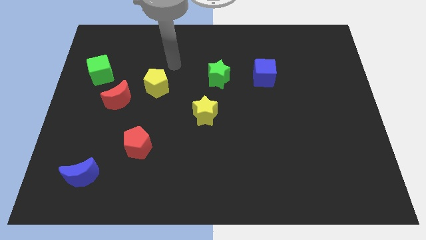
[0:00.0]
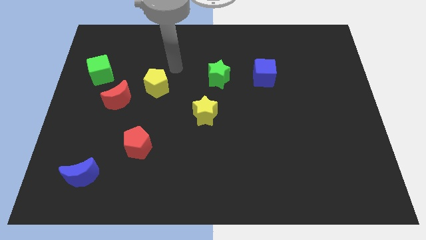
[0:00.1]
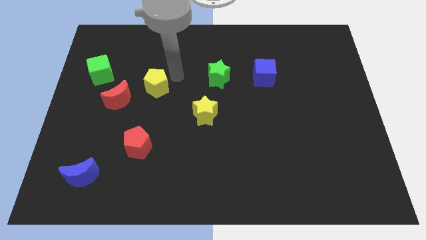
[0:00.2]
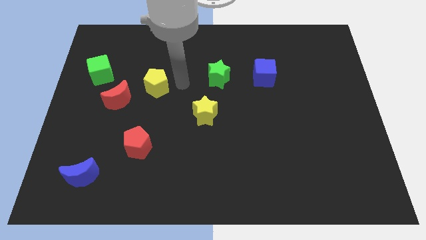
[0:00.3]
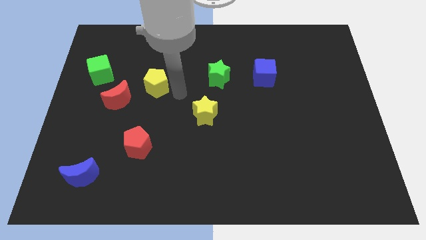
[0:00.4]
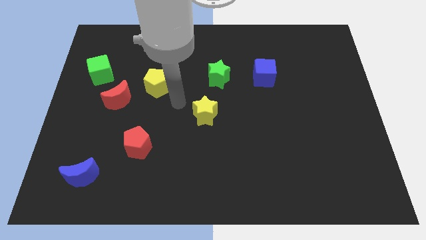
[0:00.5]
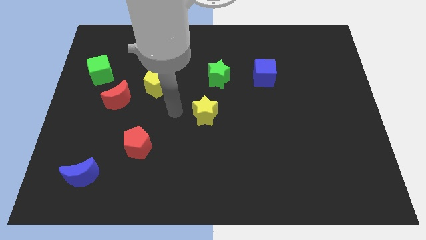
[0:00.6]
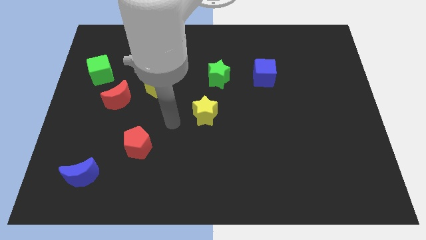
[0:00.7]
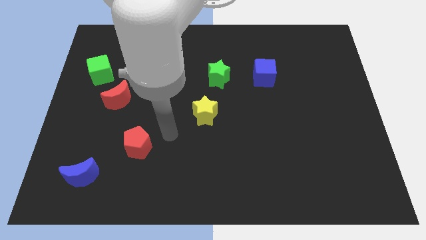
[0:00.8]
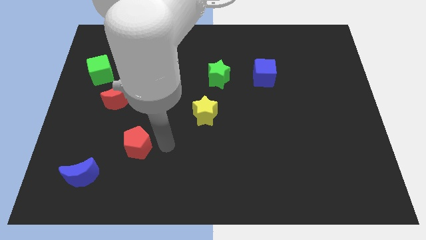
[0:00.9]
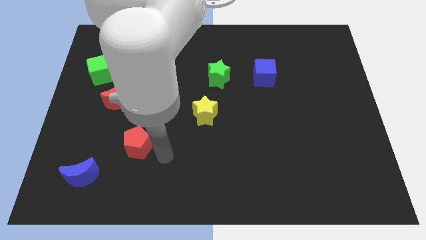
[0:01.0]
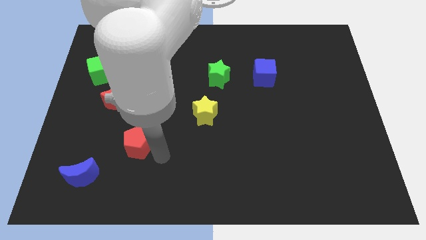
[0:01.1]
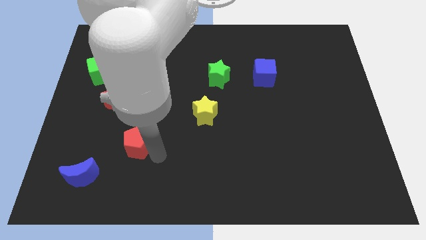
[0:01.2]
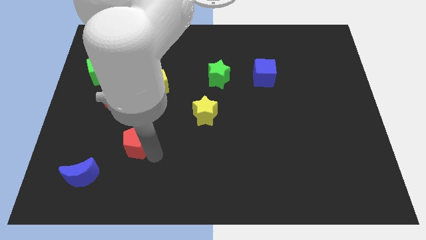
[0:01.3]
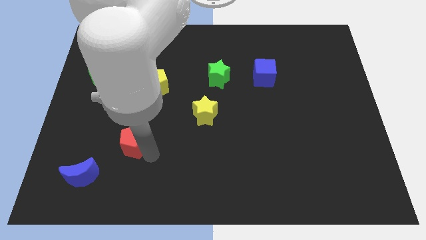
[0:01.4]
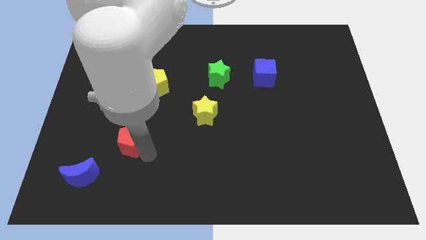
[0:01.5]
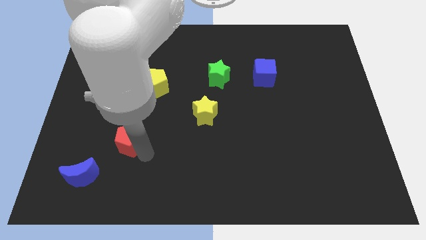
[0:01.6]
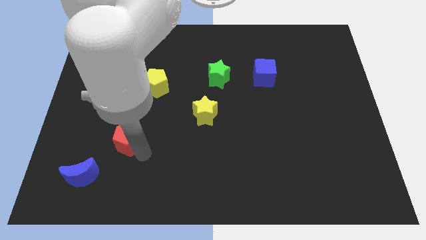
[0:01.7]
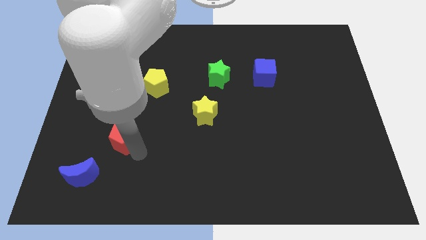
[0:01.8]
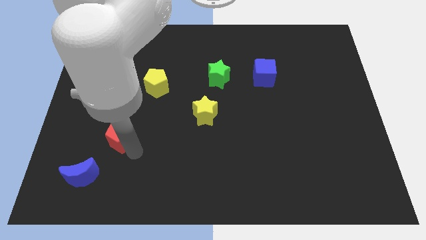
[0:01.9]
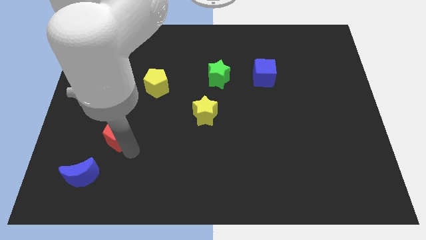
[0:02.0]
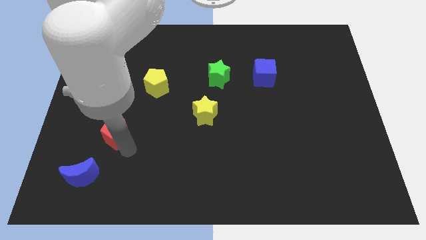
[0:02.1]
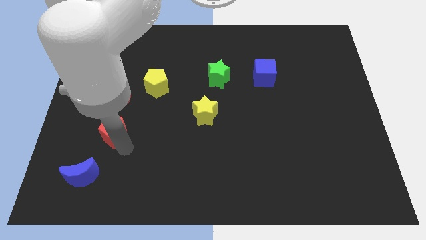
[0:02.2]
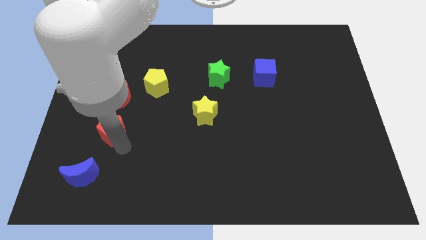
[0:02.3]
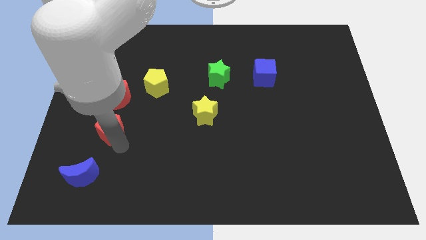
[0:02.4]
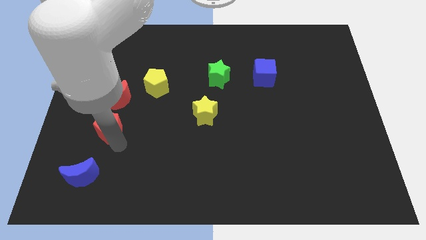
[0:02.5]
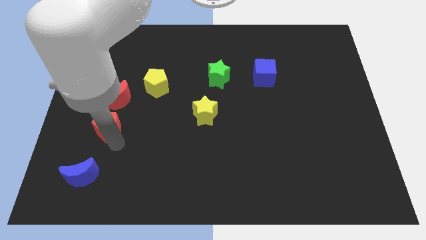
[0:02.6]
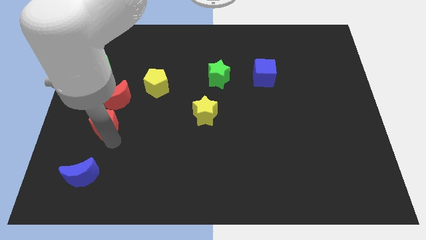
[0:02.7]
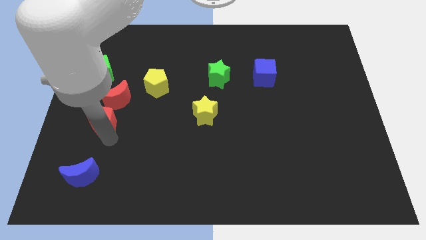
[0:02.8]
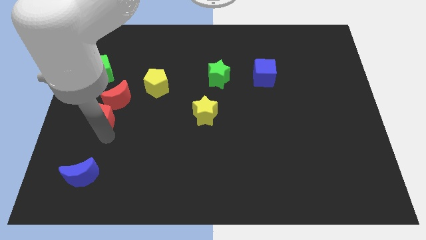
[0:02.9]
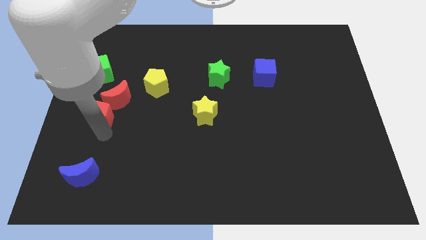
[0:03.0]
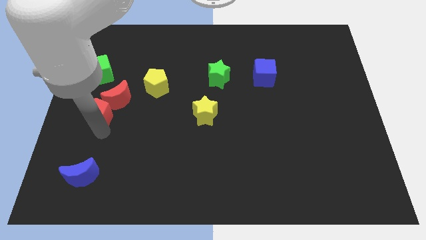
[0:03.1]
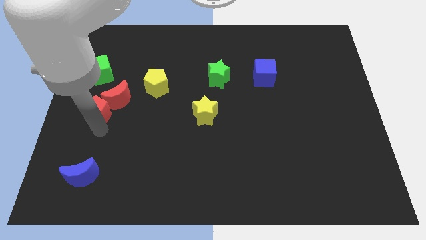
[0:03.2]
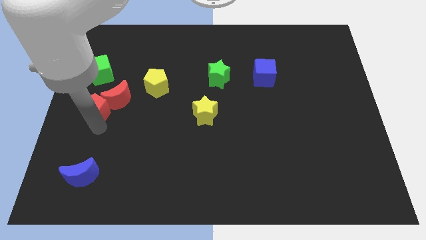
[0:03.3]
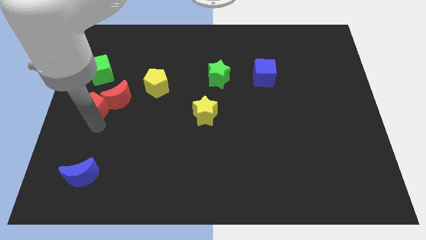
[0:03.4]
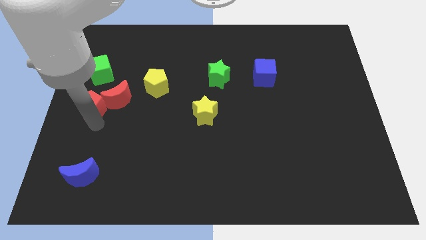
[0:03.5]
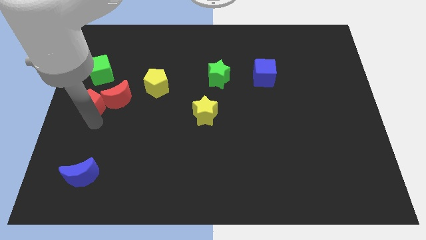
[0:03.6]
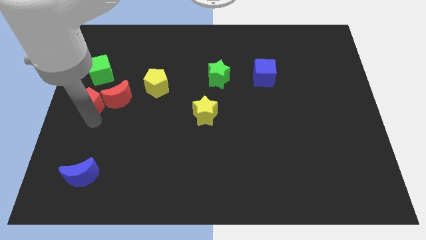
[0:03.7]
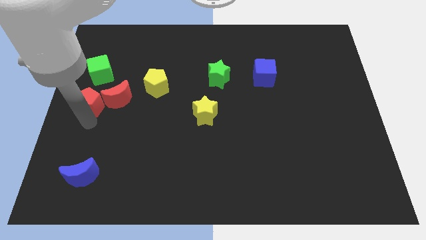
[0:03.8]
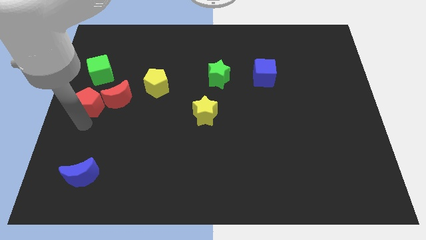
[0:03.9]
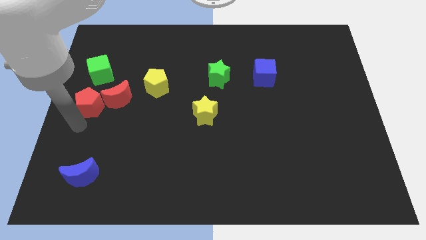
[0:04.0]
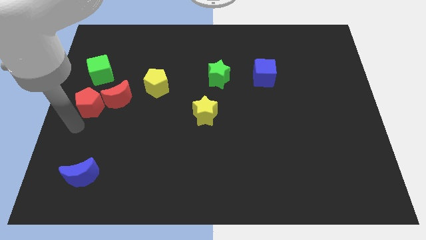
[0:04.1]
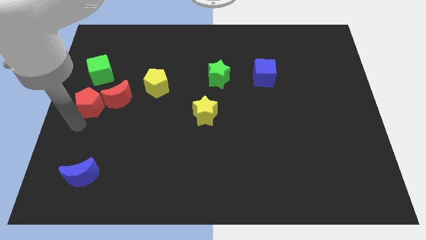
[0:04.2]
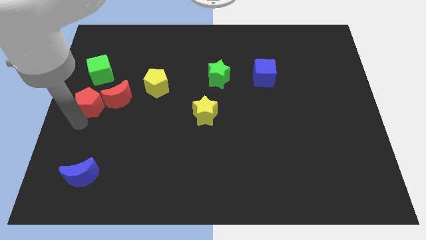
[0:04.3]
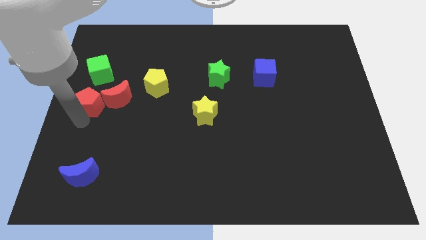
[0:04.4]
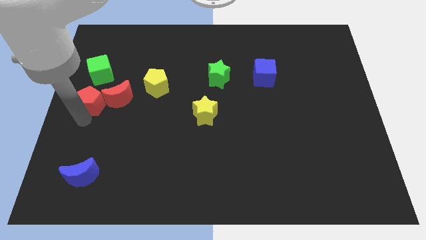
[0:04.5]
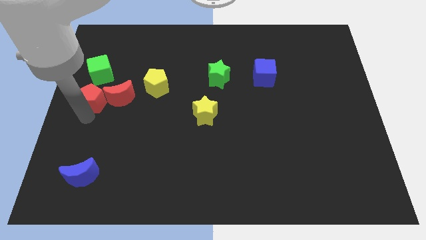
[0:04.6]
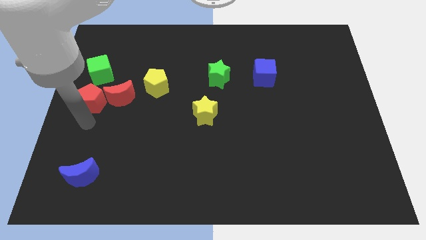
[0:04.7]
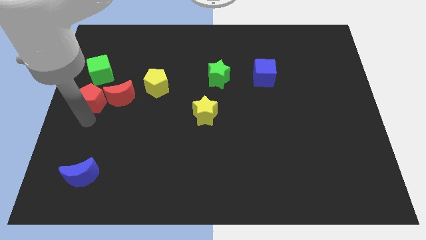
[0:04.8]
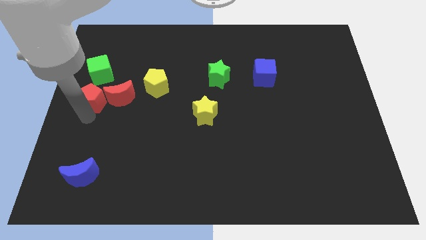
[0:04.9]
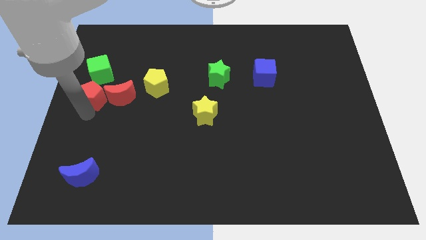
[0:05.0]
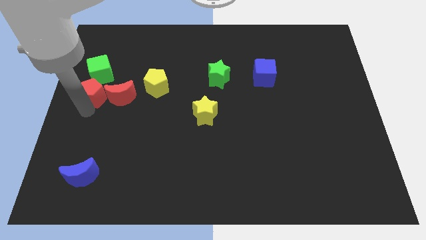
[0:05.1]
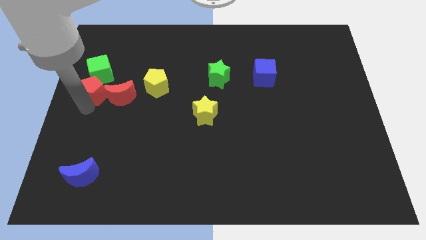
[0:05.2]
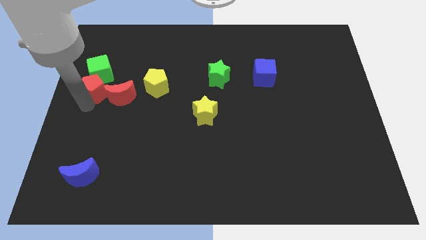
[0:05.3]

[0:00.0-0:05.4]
push the red pentagon to the green cube

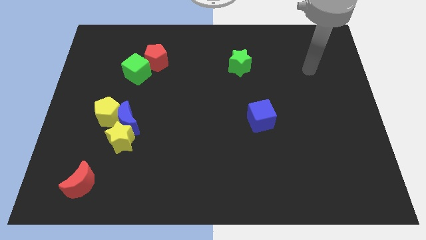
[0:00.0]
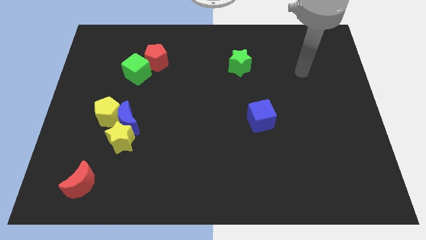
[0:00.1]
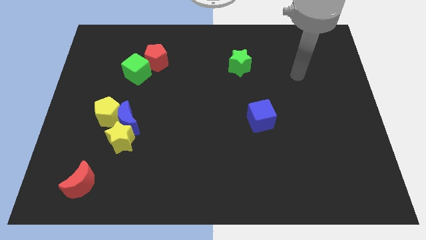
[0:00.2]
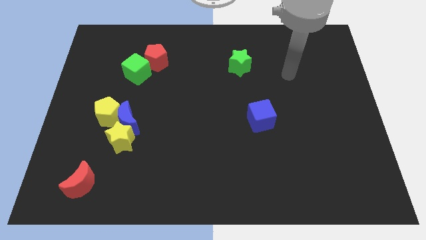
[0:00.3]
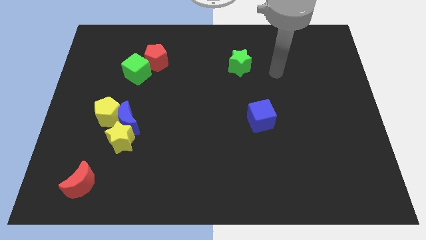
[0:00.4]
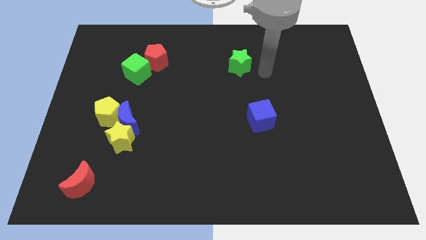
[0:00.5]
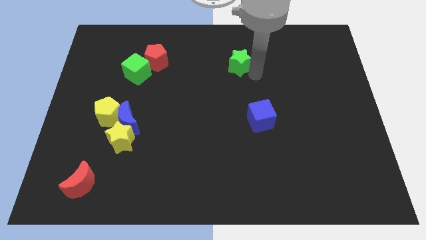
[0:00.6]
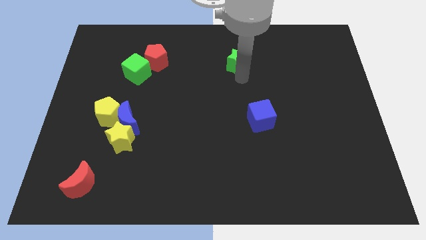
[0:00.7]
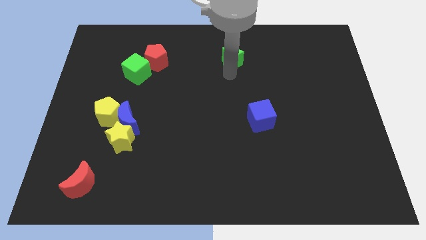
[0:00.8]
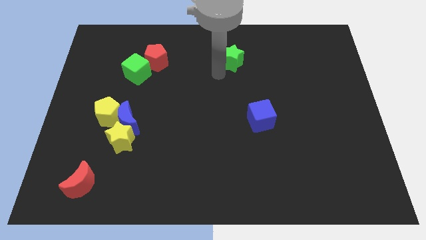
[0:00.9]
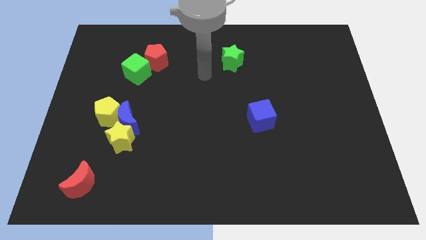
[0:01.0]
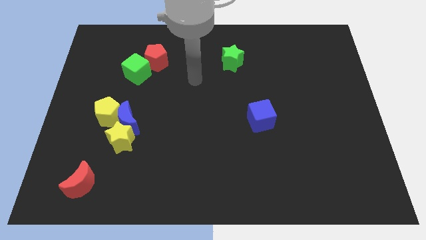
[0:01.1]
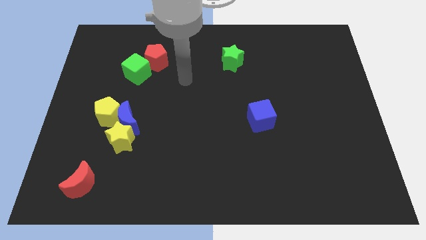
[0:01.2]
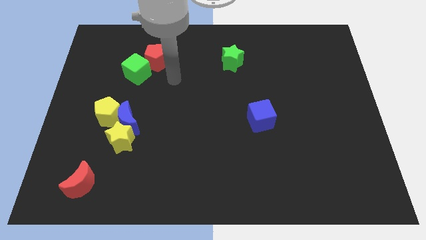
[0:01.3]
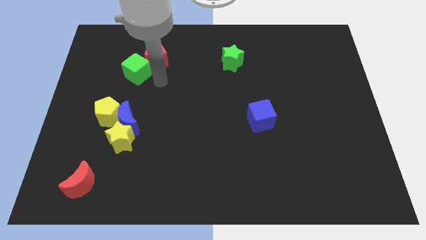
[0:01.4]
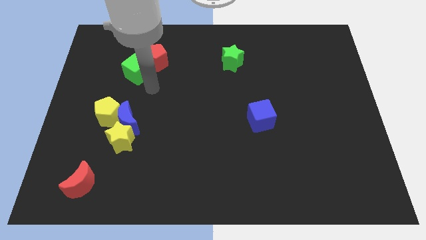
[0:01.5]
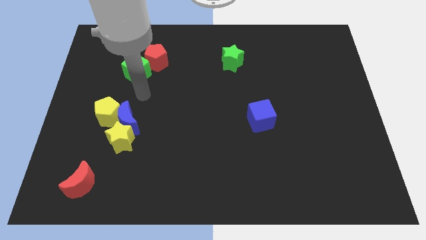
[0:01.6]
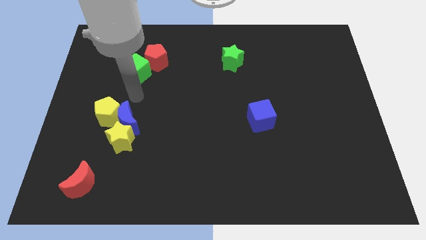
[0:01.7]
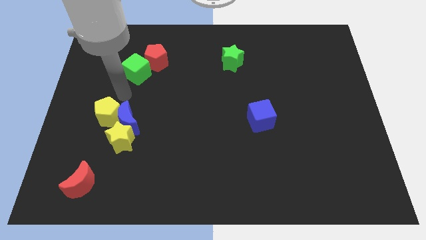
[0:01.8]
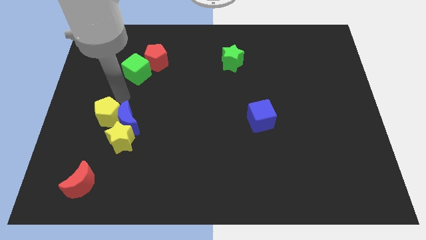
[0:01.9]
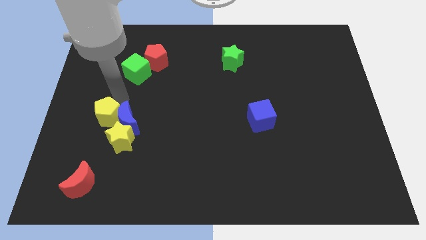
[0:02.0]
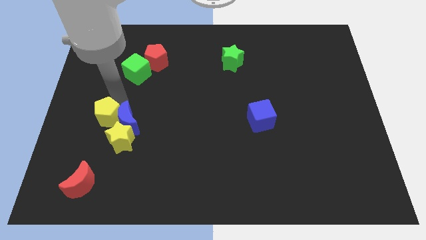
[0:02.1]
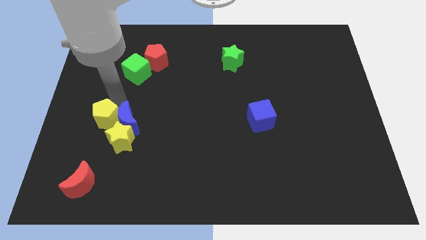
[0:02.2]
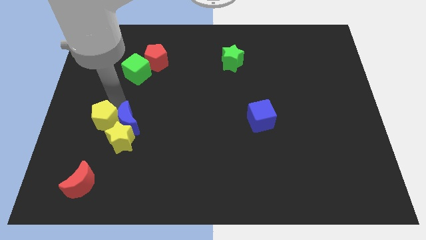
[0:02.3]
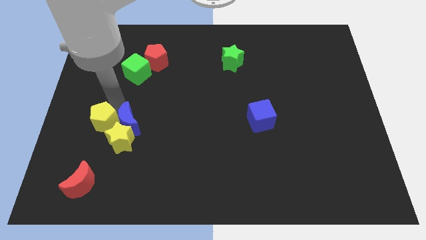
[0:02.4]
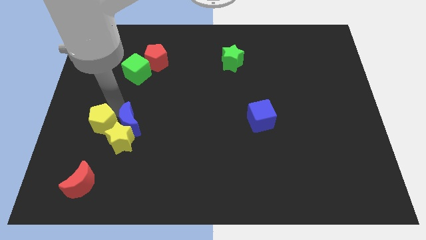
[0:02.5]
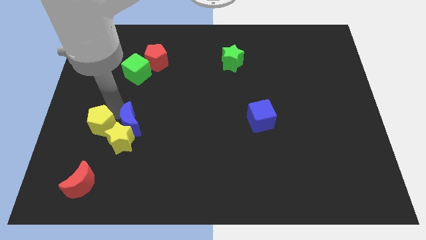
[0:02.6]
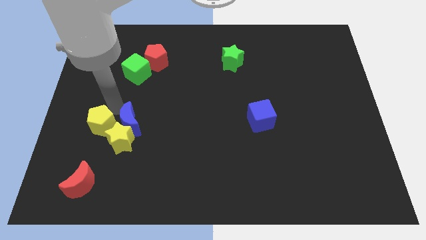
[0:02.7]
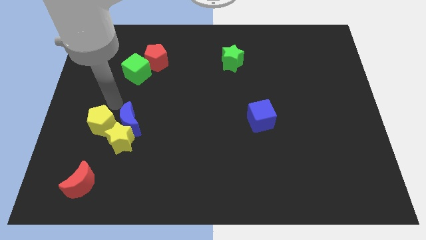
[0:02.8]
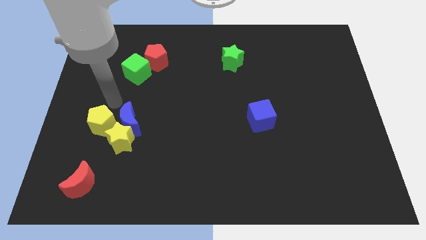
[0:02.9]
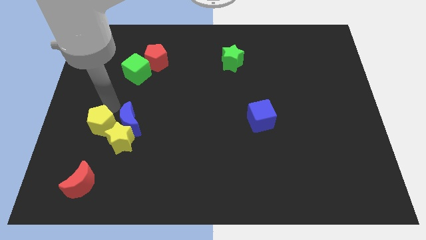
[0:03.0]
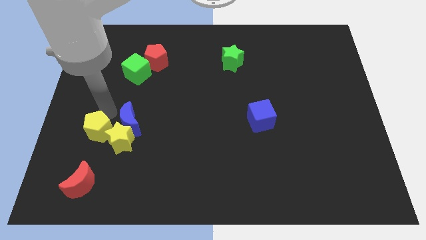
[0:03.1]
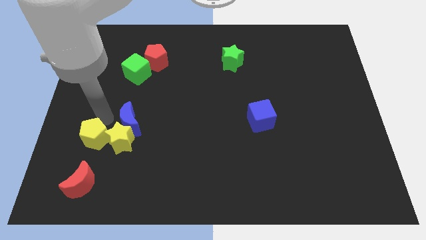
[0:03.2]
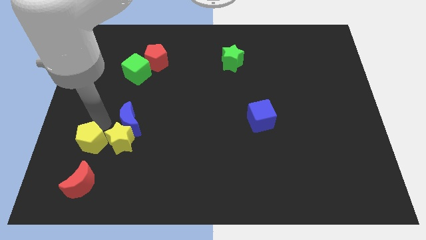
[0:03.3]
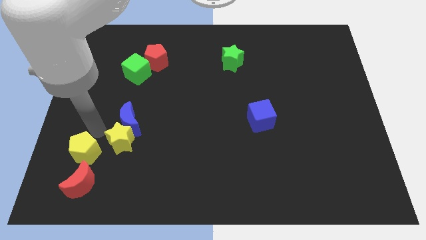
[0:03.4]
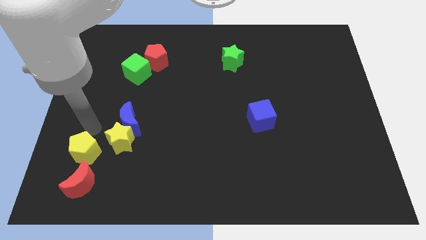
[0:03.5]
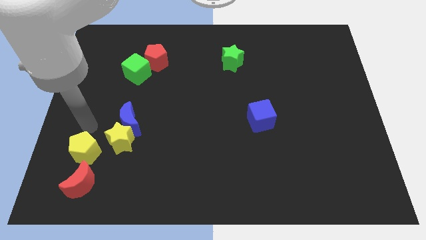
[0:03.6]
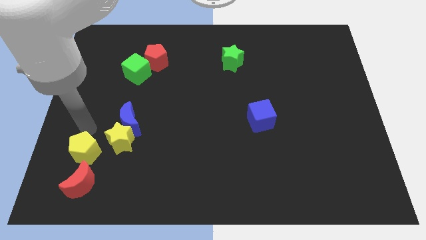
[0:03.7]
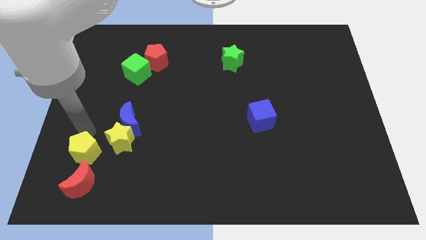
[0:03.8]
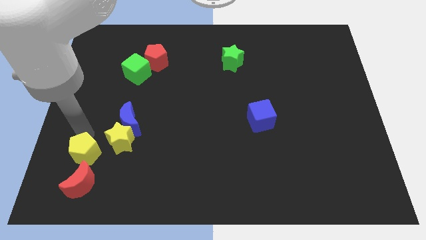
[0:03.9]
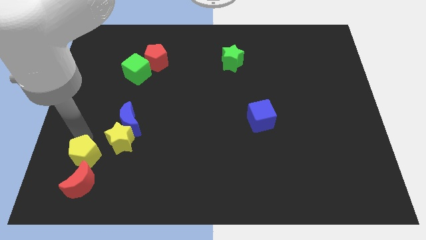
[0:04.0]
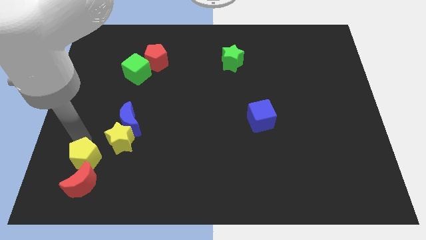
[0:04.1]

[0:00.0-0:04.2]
push the yellow pentagon towards the red moon
